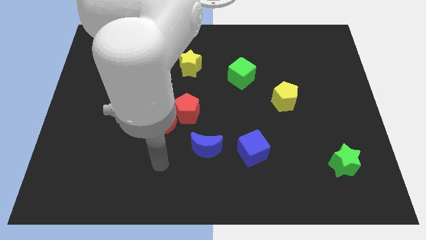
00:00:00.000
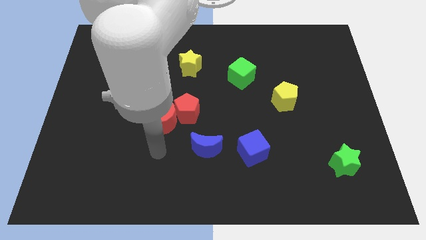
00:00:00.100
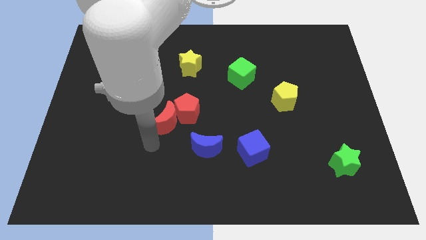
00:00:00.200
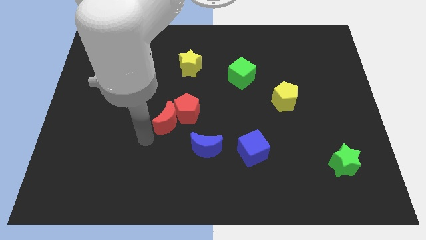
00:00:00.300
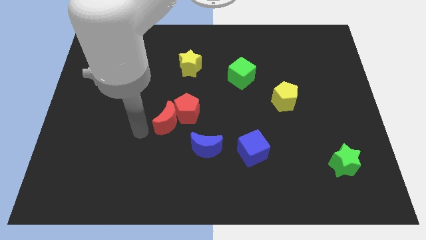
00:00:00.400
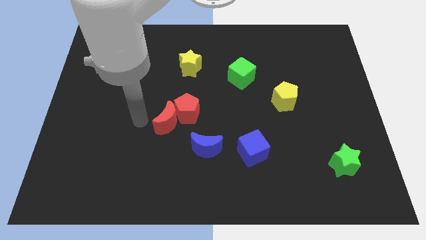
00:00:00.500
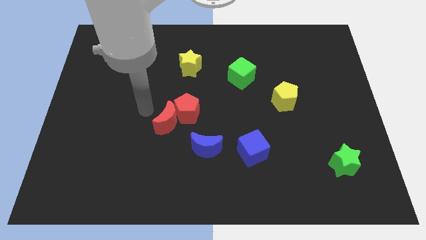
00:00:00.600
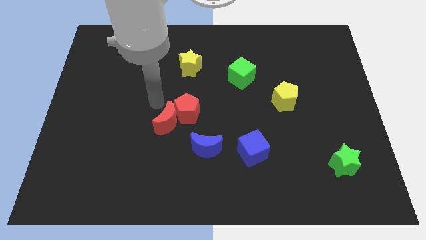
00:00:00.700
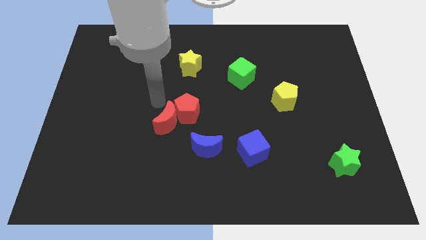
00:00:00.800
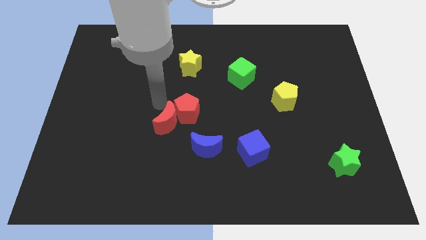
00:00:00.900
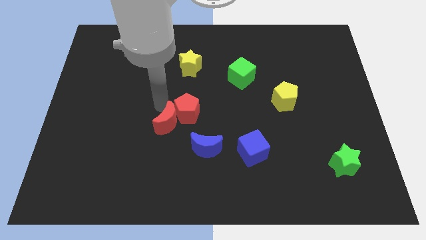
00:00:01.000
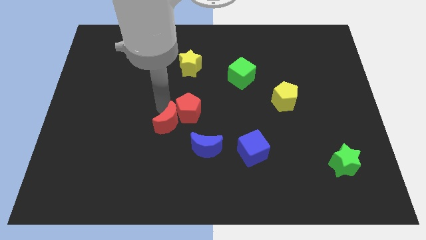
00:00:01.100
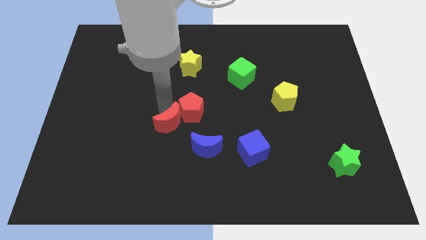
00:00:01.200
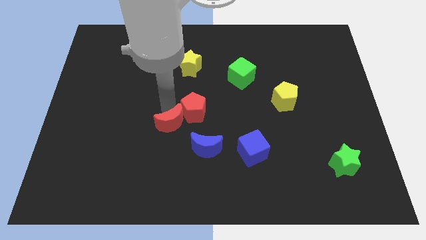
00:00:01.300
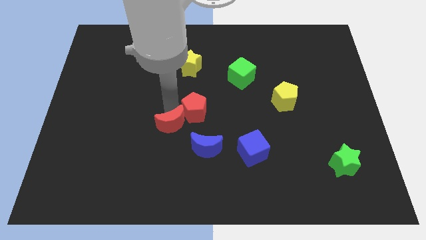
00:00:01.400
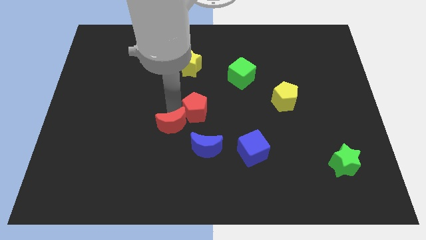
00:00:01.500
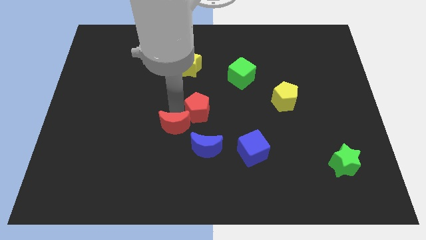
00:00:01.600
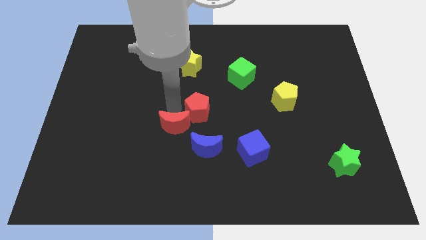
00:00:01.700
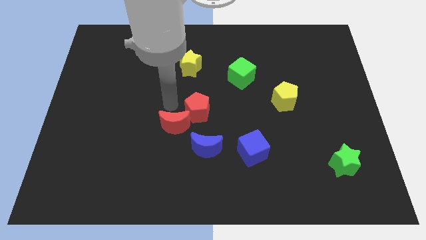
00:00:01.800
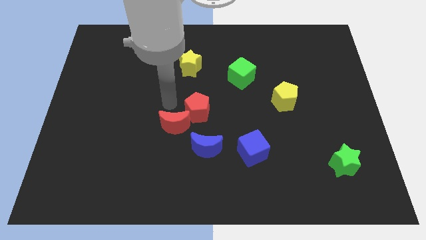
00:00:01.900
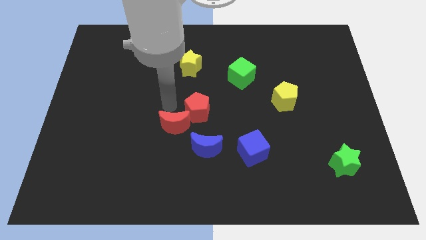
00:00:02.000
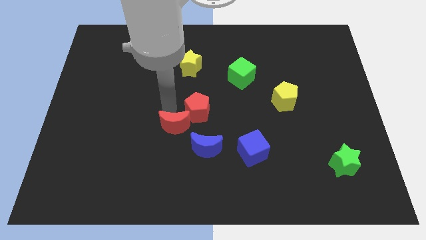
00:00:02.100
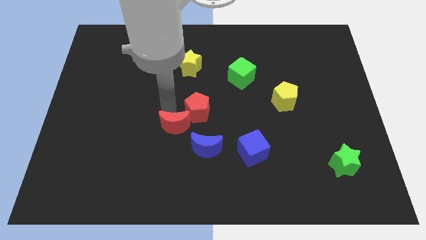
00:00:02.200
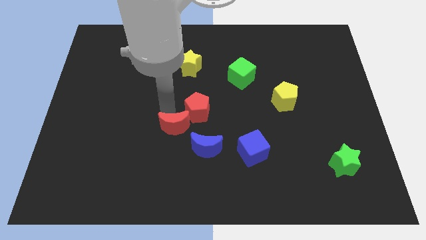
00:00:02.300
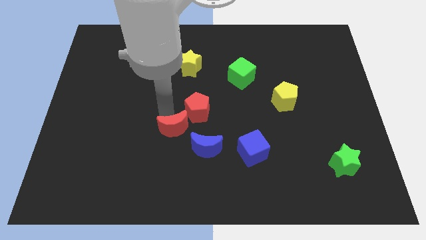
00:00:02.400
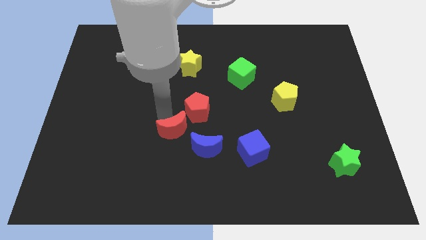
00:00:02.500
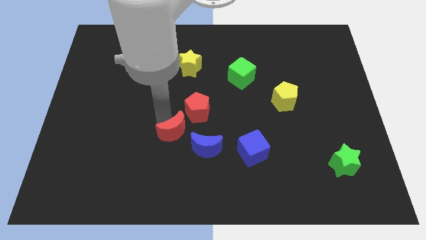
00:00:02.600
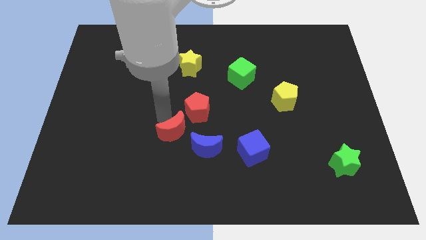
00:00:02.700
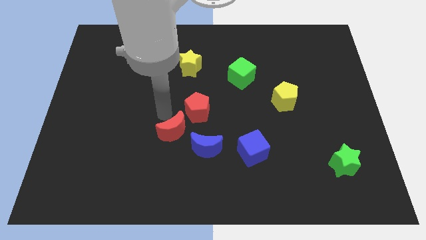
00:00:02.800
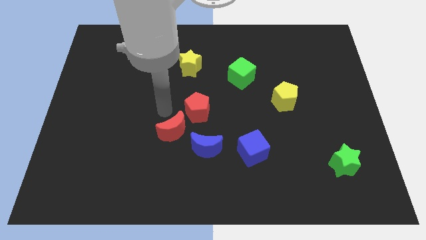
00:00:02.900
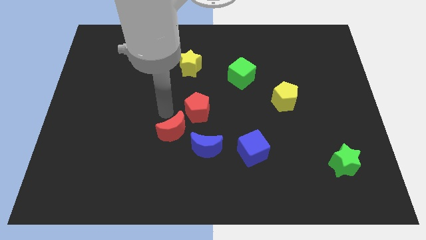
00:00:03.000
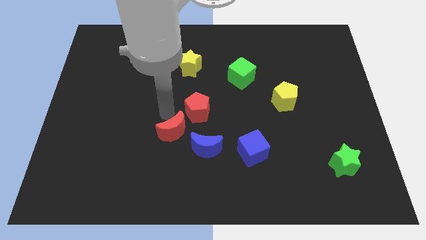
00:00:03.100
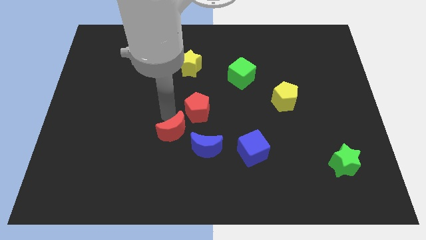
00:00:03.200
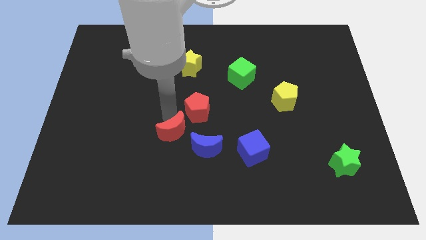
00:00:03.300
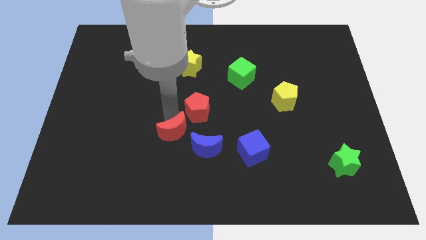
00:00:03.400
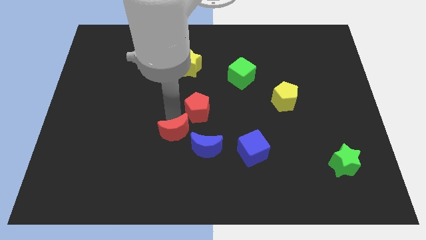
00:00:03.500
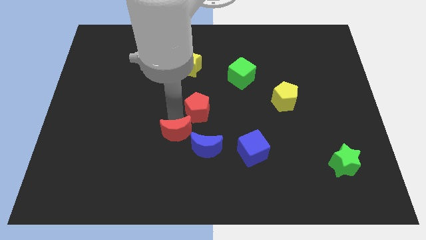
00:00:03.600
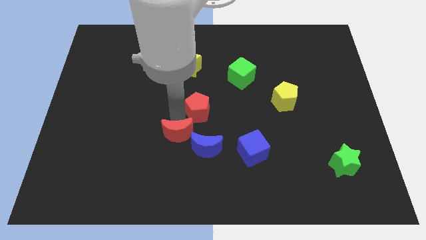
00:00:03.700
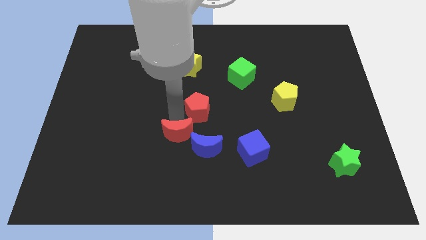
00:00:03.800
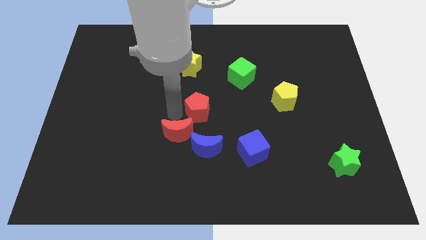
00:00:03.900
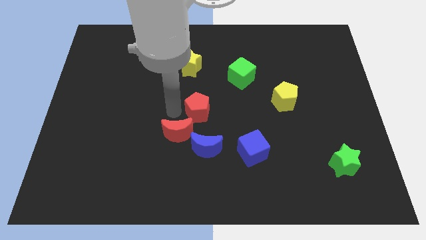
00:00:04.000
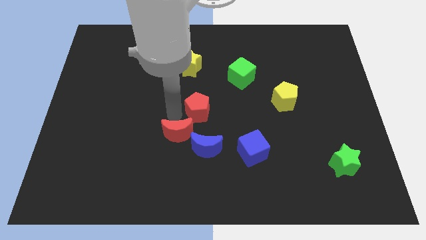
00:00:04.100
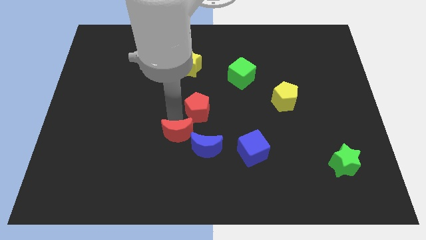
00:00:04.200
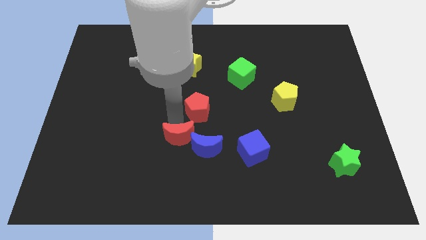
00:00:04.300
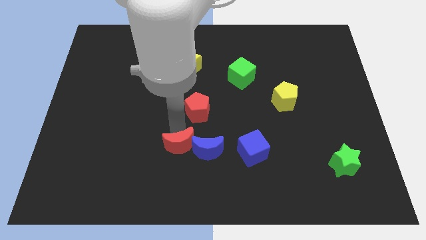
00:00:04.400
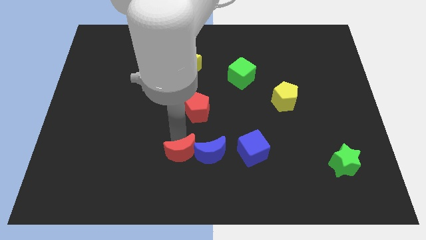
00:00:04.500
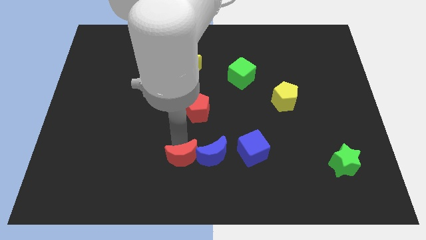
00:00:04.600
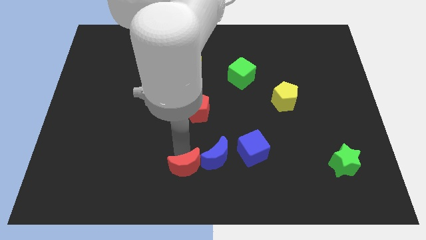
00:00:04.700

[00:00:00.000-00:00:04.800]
move the red moon to the bottom

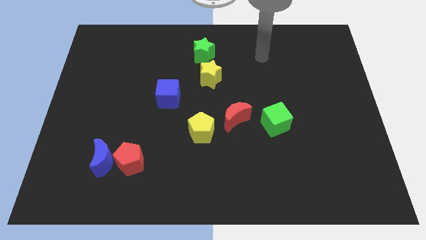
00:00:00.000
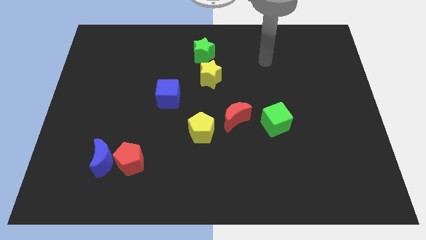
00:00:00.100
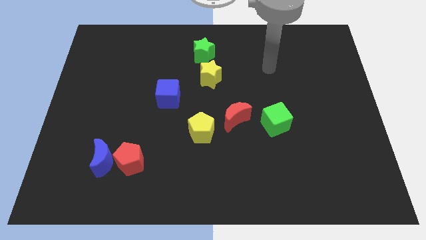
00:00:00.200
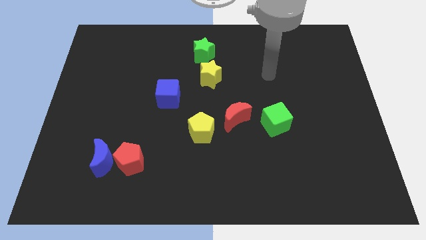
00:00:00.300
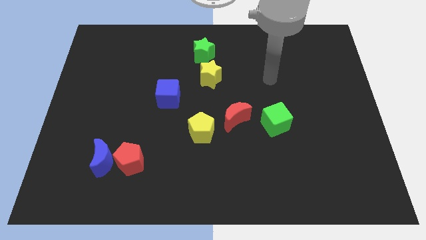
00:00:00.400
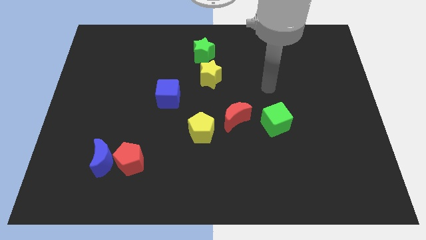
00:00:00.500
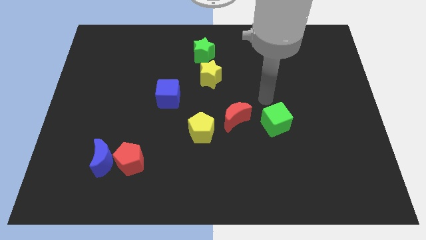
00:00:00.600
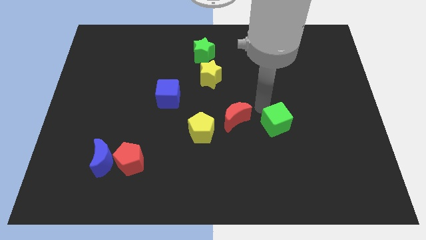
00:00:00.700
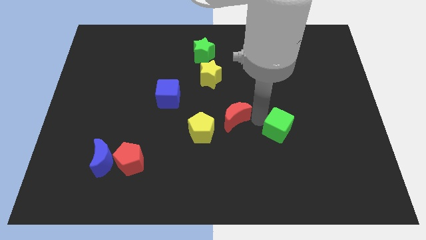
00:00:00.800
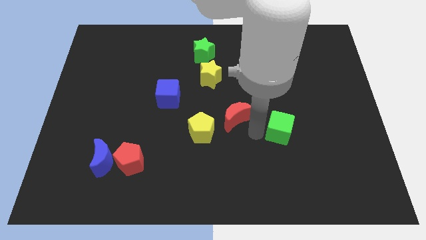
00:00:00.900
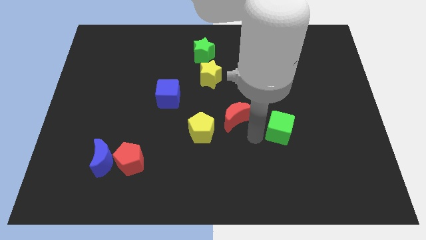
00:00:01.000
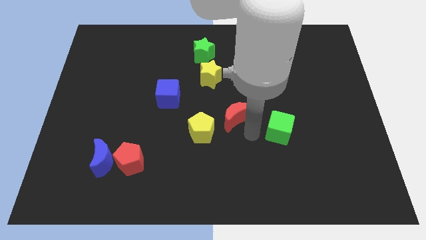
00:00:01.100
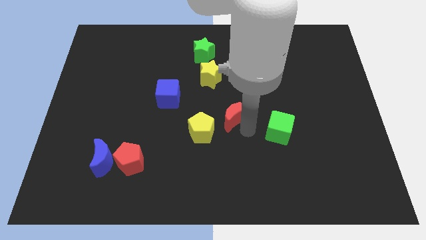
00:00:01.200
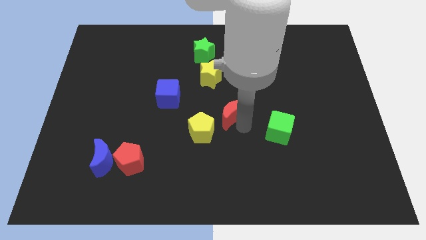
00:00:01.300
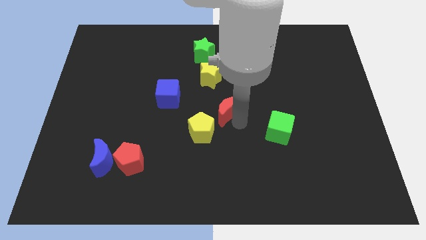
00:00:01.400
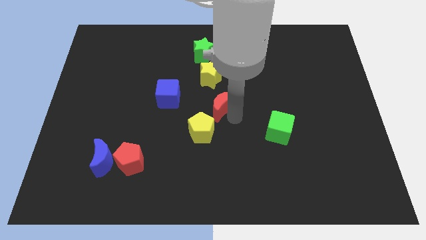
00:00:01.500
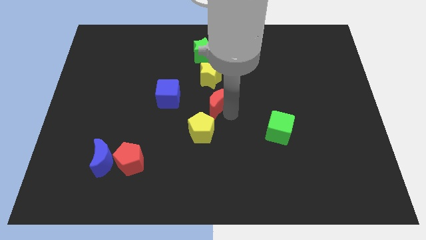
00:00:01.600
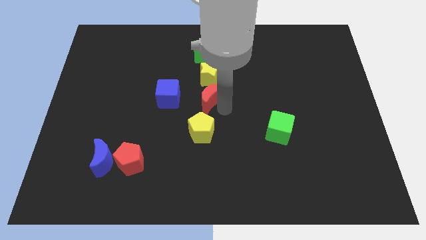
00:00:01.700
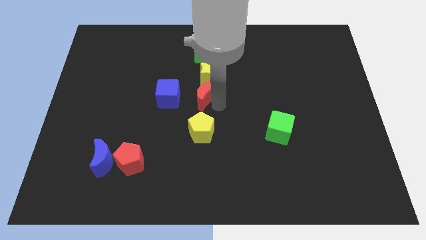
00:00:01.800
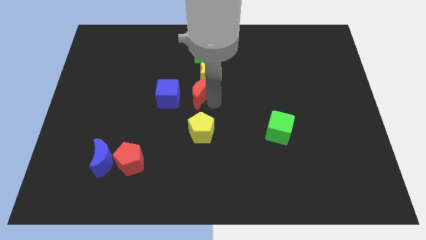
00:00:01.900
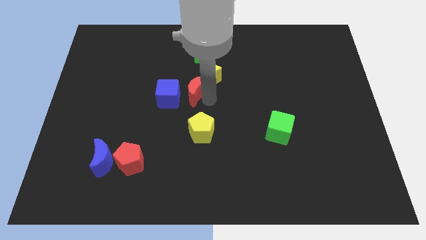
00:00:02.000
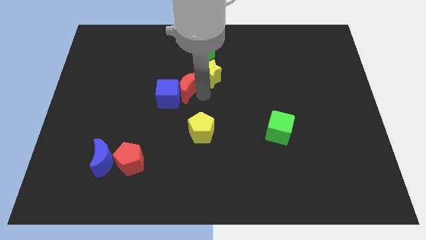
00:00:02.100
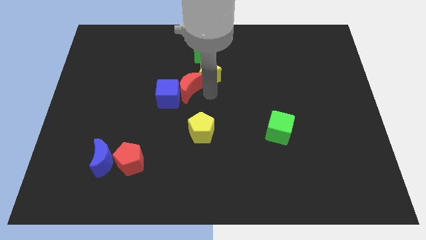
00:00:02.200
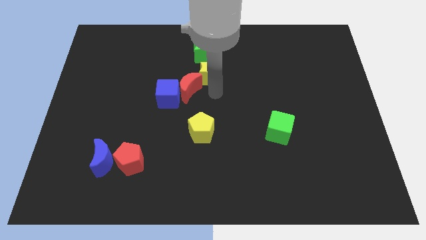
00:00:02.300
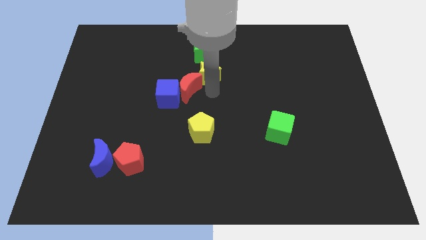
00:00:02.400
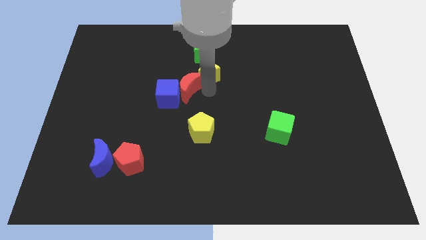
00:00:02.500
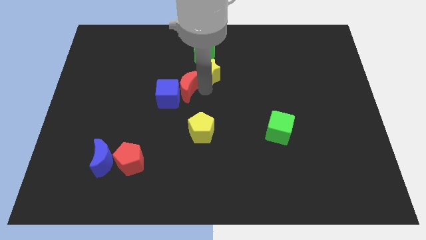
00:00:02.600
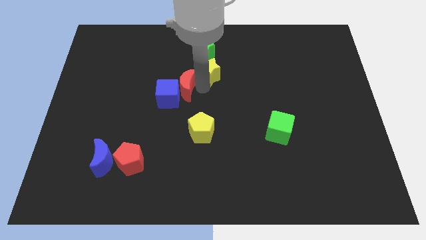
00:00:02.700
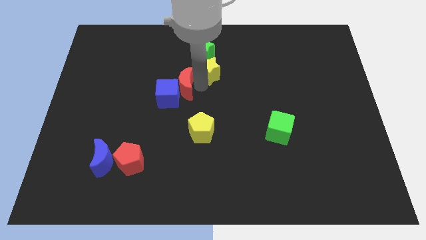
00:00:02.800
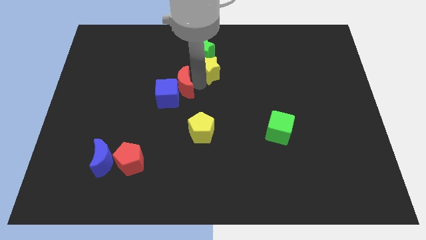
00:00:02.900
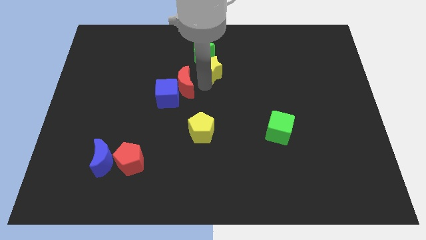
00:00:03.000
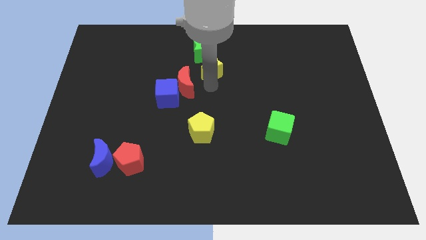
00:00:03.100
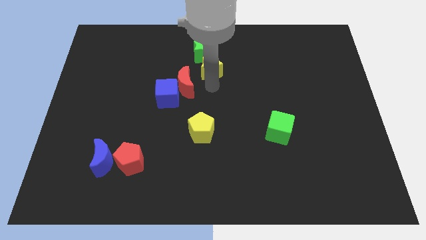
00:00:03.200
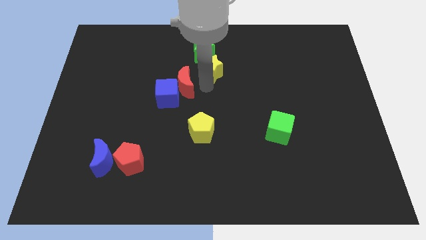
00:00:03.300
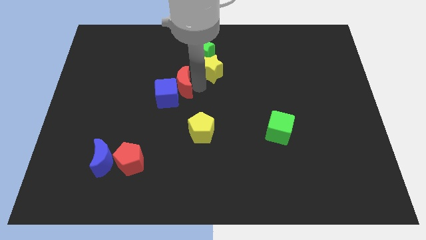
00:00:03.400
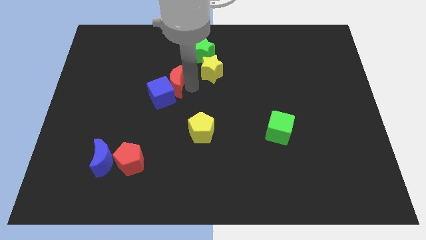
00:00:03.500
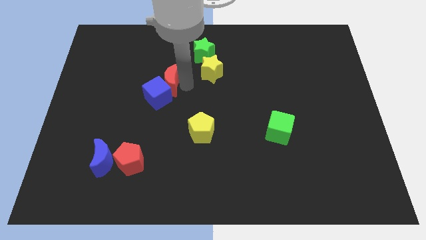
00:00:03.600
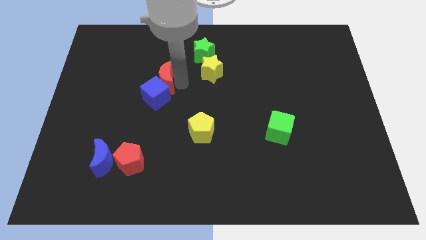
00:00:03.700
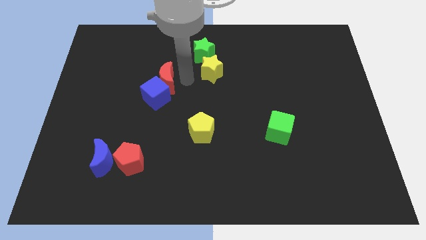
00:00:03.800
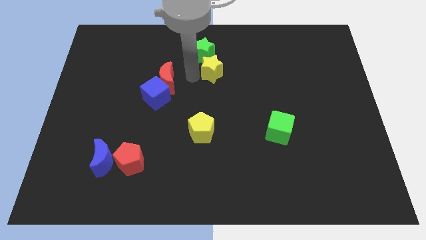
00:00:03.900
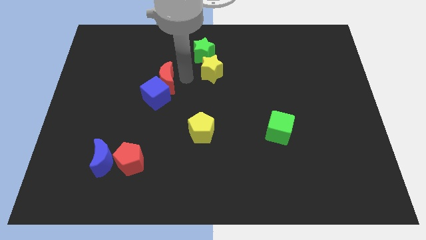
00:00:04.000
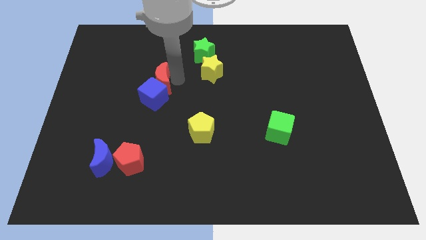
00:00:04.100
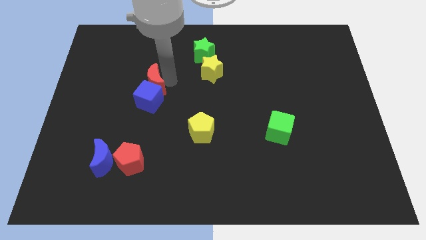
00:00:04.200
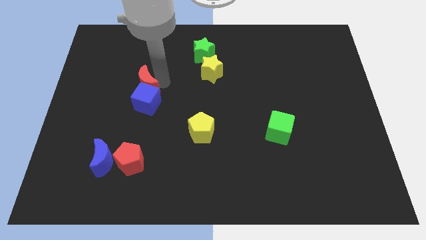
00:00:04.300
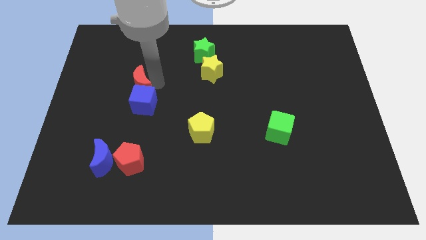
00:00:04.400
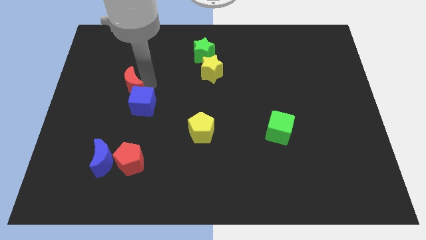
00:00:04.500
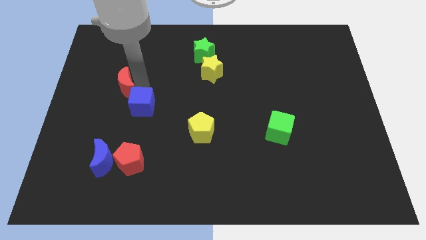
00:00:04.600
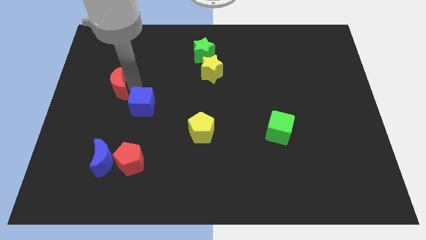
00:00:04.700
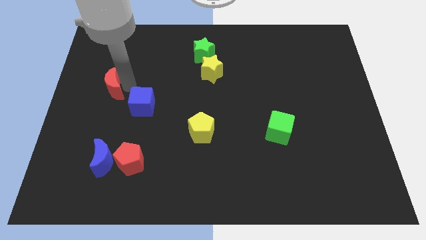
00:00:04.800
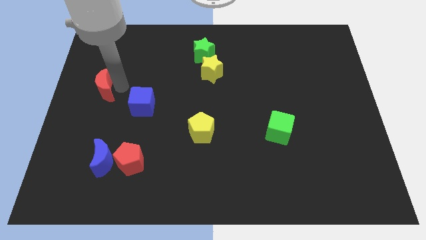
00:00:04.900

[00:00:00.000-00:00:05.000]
move the red moon to the left side
